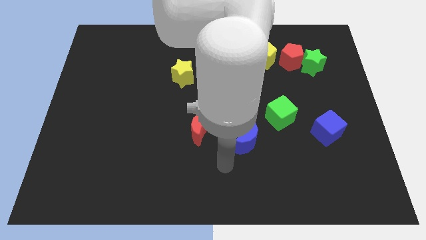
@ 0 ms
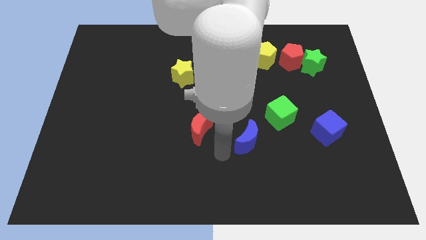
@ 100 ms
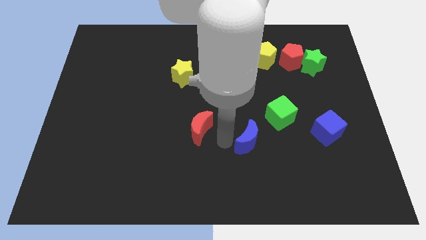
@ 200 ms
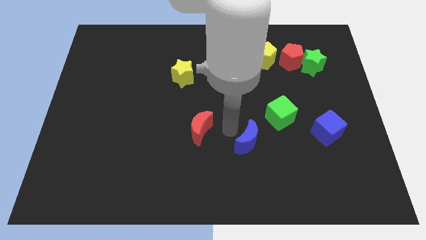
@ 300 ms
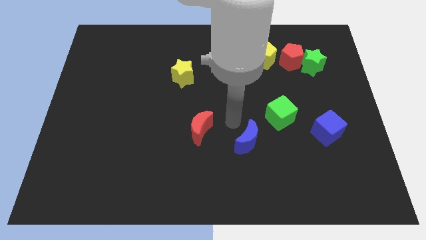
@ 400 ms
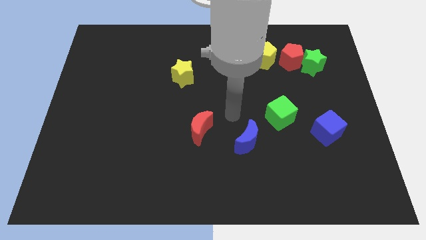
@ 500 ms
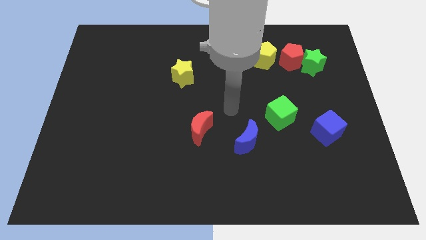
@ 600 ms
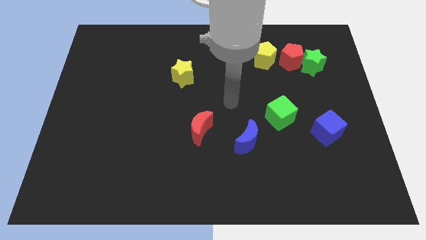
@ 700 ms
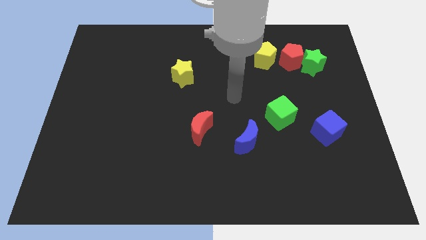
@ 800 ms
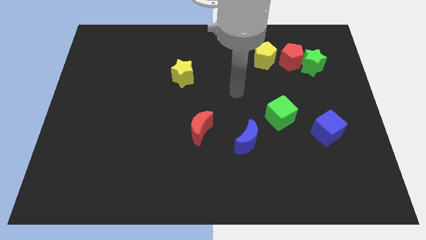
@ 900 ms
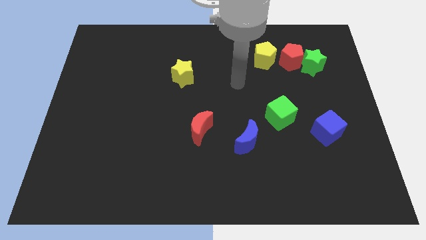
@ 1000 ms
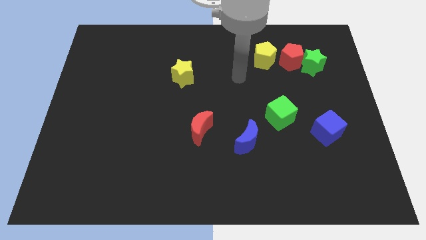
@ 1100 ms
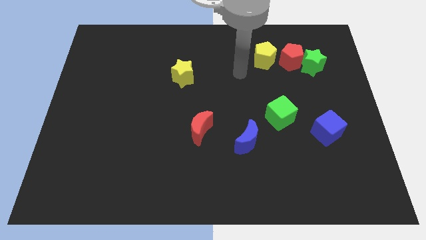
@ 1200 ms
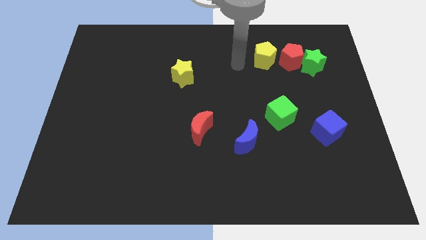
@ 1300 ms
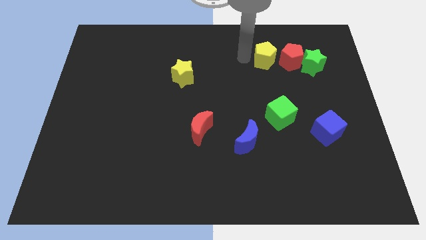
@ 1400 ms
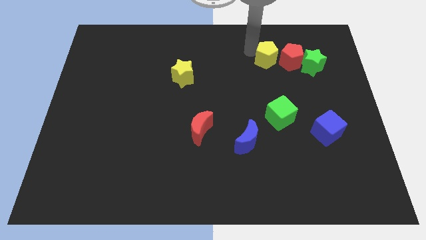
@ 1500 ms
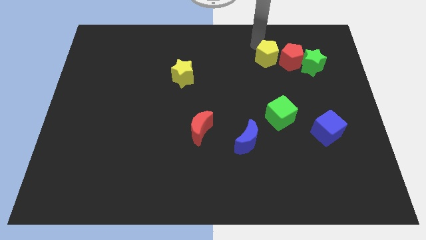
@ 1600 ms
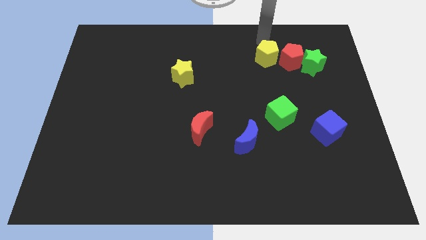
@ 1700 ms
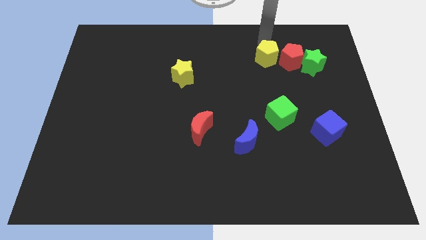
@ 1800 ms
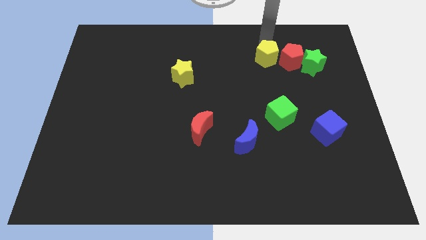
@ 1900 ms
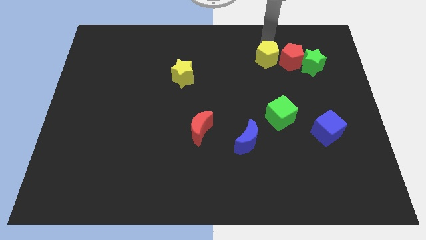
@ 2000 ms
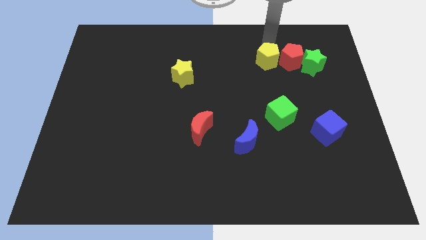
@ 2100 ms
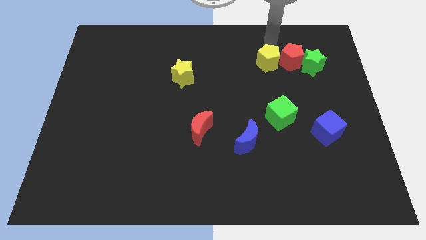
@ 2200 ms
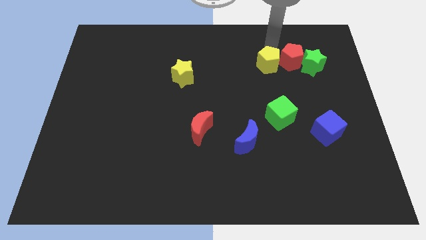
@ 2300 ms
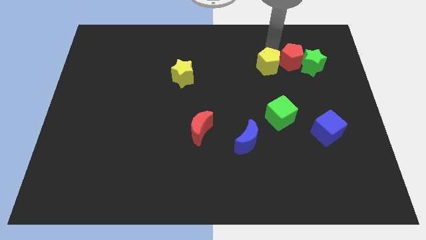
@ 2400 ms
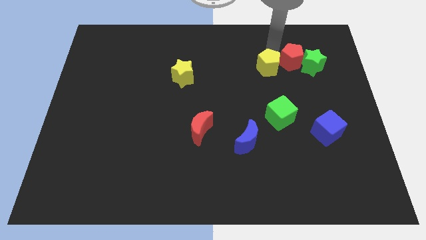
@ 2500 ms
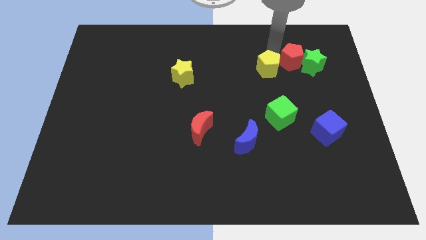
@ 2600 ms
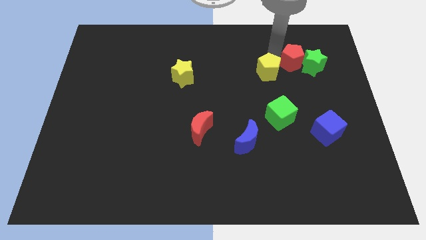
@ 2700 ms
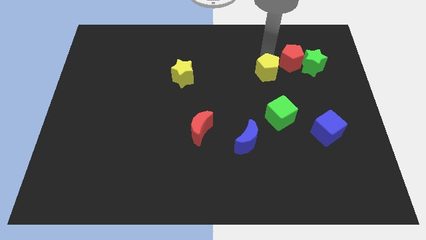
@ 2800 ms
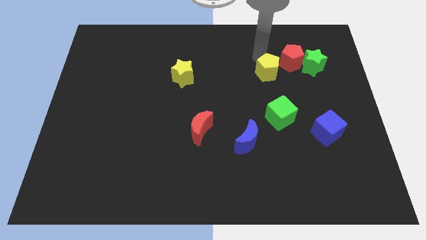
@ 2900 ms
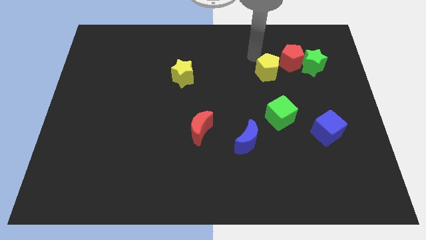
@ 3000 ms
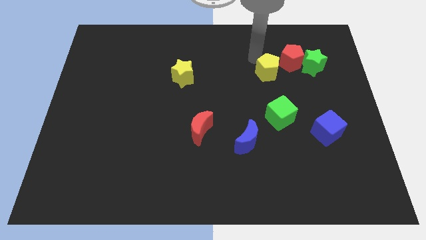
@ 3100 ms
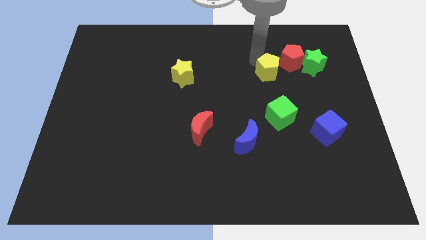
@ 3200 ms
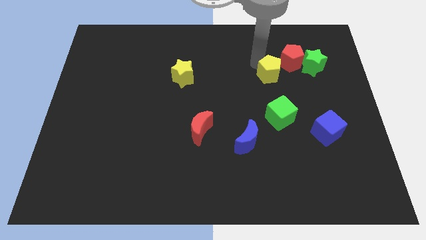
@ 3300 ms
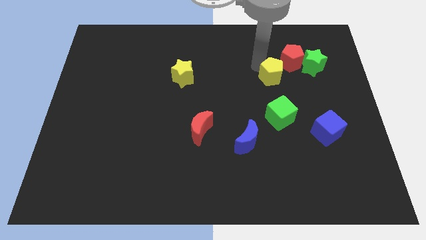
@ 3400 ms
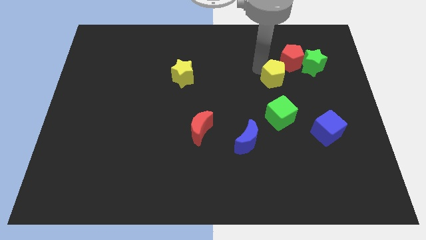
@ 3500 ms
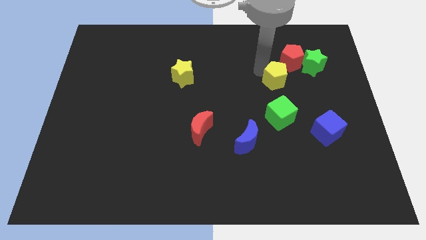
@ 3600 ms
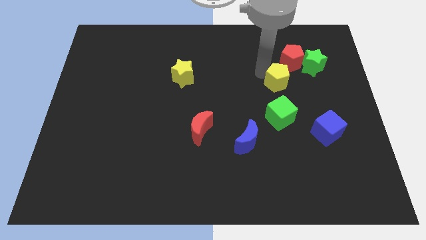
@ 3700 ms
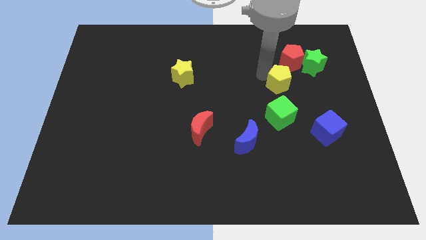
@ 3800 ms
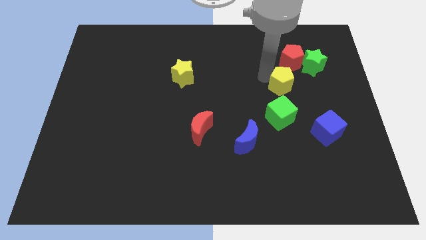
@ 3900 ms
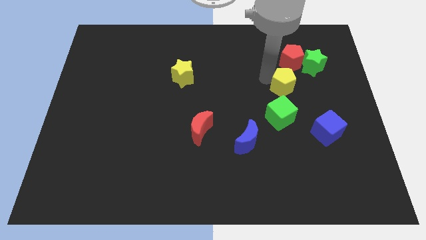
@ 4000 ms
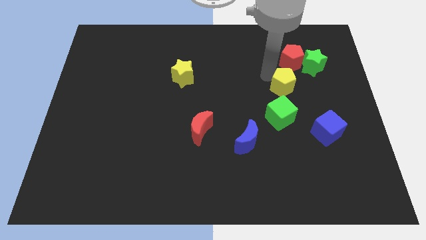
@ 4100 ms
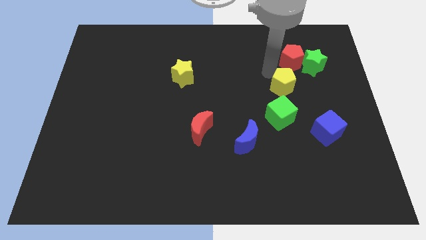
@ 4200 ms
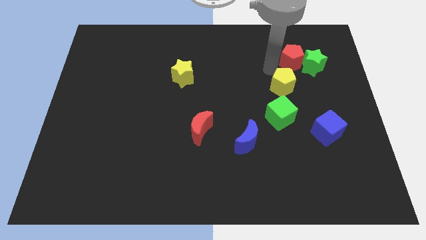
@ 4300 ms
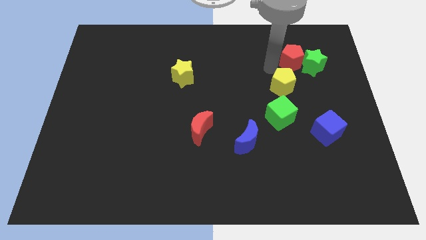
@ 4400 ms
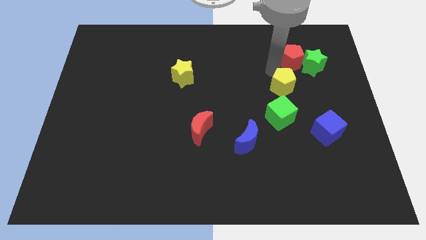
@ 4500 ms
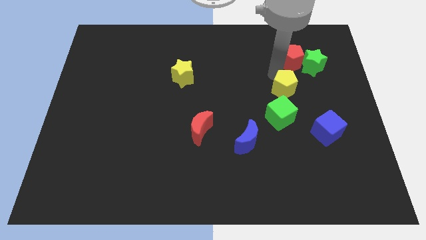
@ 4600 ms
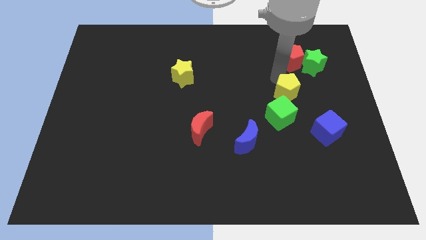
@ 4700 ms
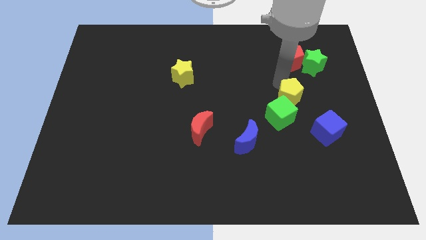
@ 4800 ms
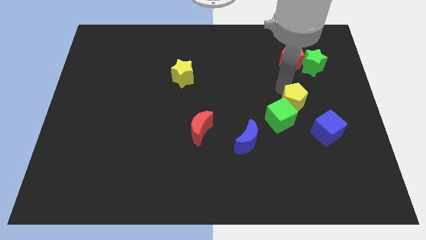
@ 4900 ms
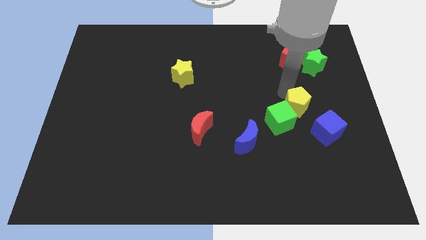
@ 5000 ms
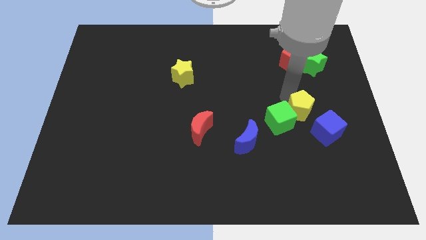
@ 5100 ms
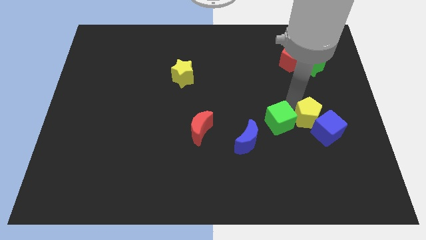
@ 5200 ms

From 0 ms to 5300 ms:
put the yellow pentagon to the blue cube

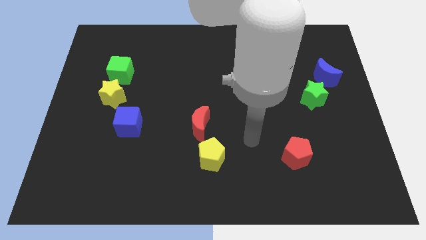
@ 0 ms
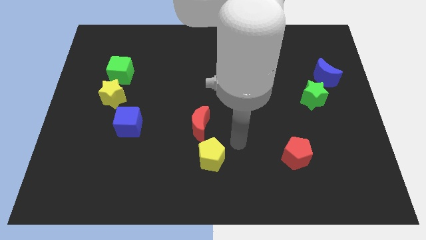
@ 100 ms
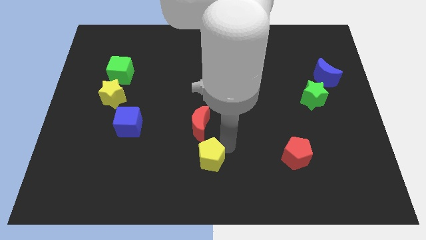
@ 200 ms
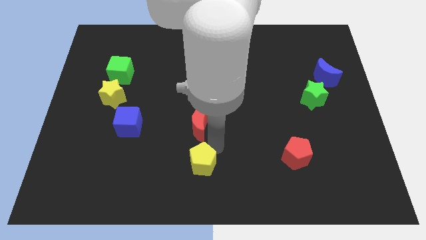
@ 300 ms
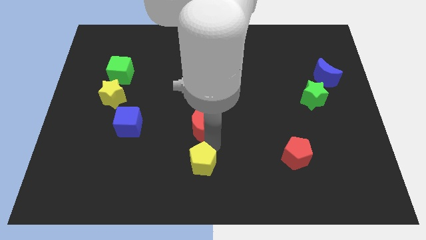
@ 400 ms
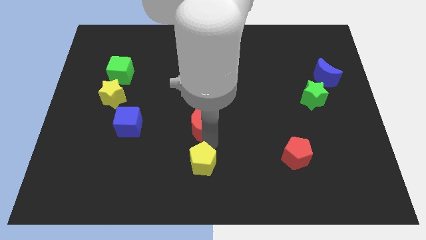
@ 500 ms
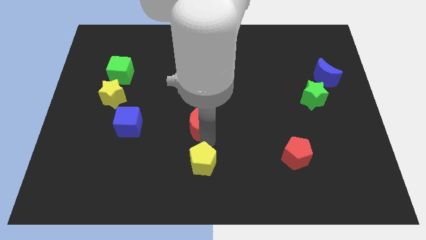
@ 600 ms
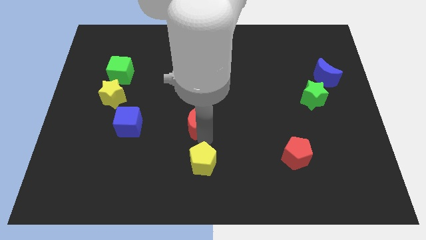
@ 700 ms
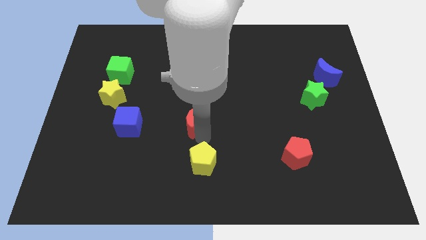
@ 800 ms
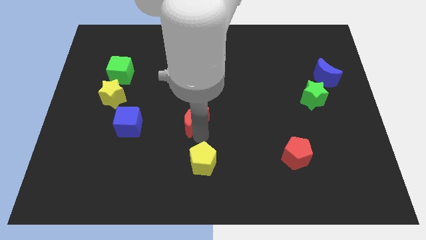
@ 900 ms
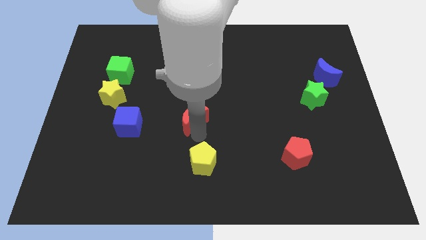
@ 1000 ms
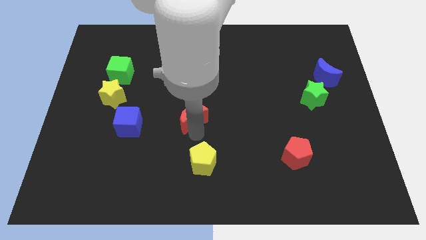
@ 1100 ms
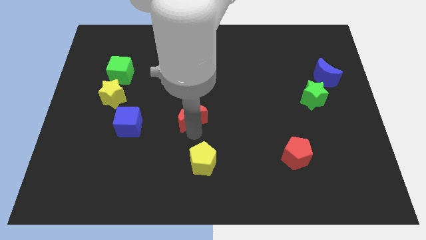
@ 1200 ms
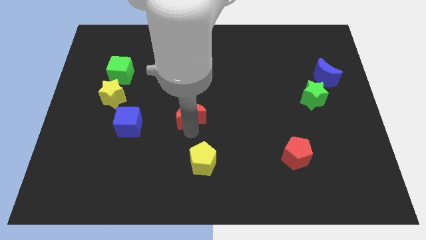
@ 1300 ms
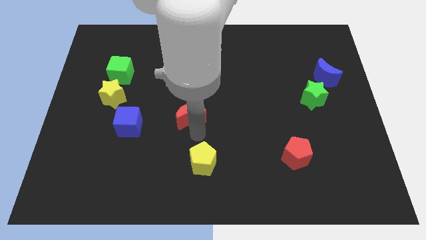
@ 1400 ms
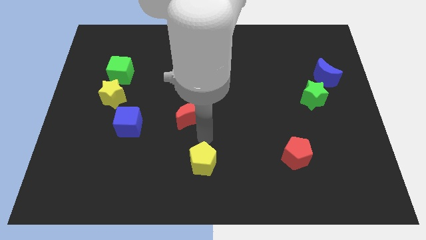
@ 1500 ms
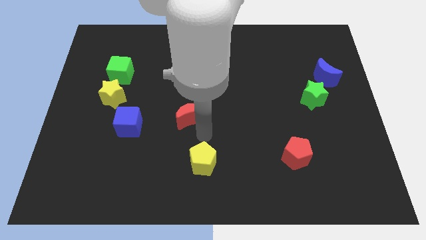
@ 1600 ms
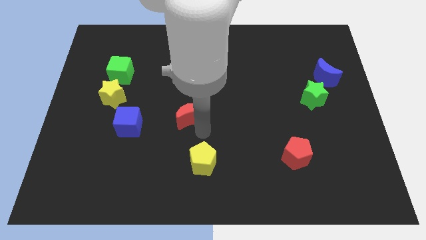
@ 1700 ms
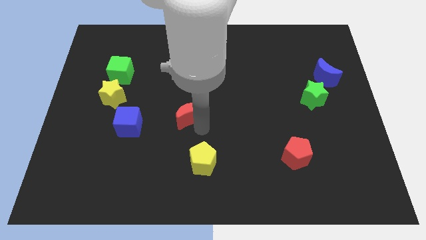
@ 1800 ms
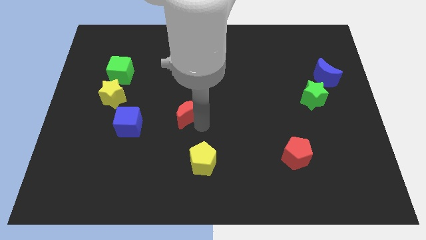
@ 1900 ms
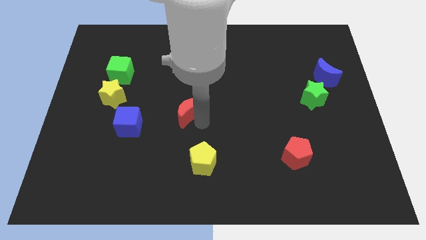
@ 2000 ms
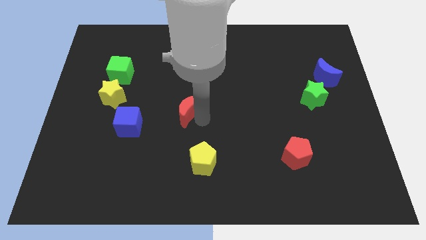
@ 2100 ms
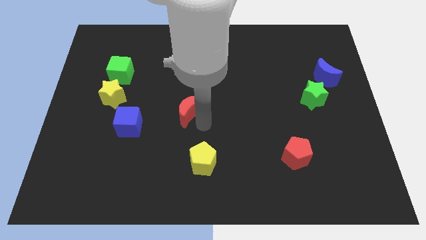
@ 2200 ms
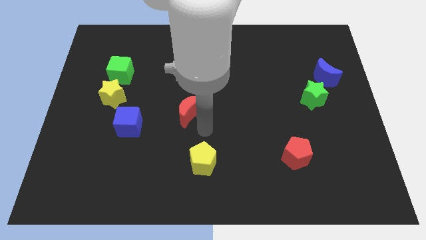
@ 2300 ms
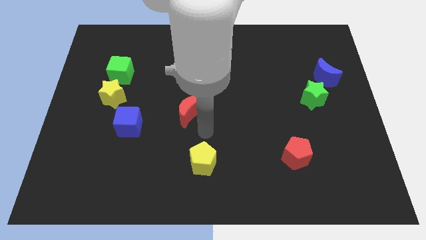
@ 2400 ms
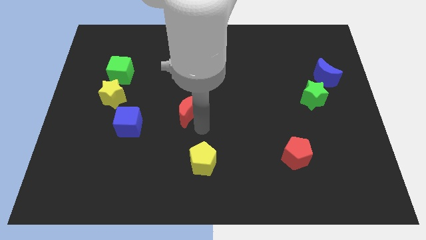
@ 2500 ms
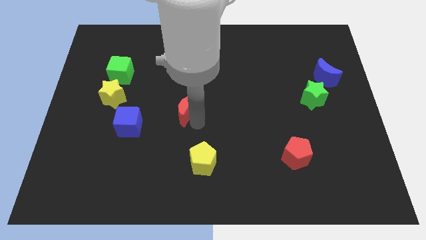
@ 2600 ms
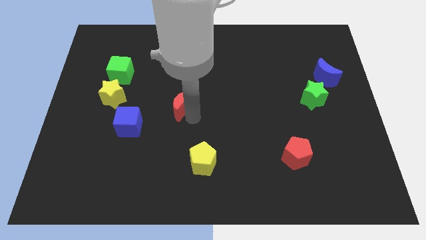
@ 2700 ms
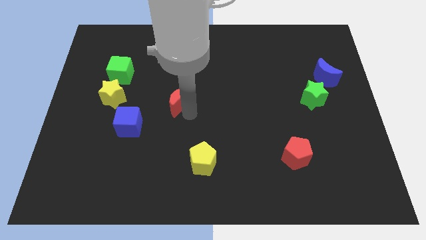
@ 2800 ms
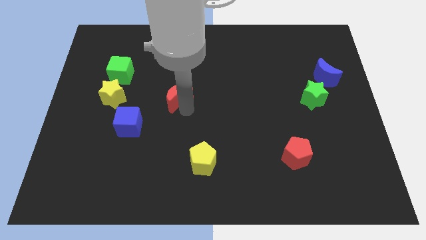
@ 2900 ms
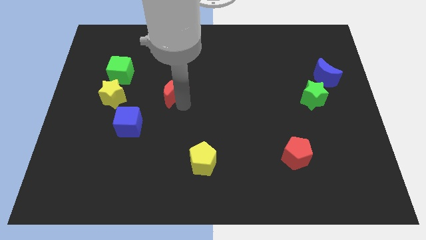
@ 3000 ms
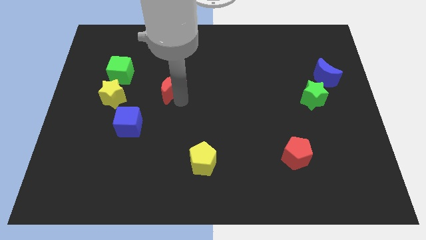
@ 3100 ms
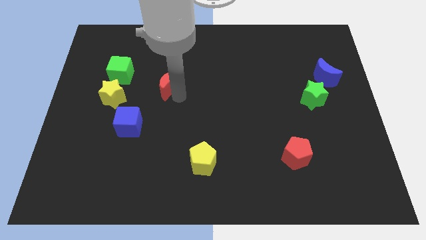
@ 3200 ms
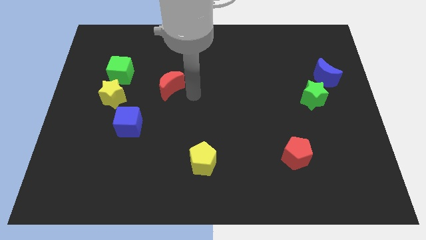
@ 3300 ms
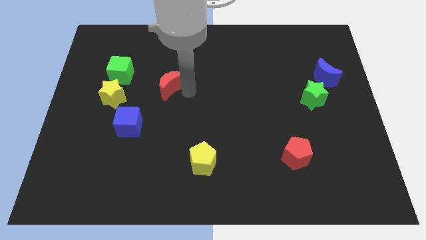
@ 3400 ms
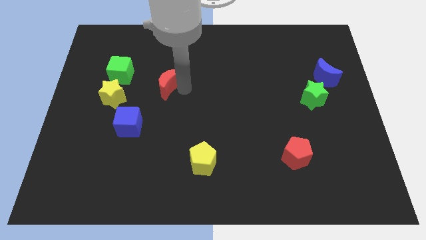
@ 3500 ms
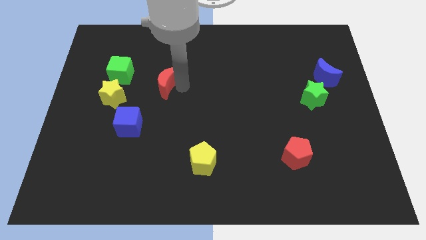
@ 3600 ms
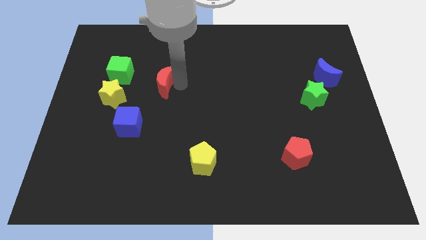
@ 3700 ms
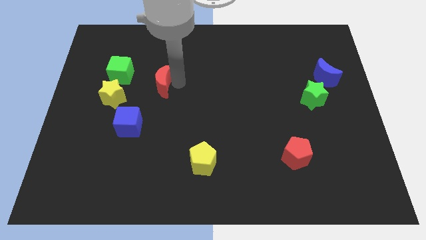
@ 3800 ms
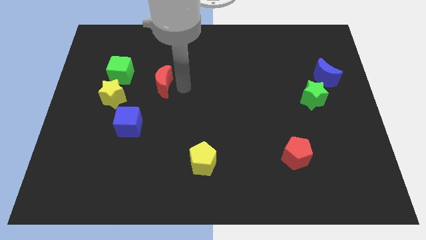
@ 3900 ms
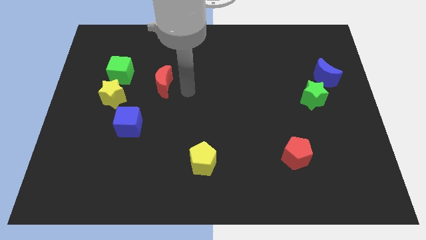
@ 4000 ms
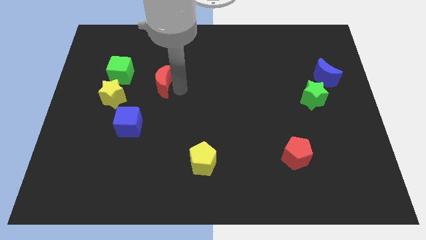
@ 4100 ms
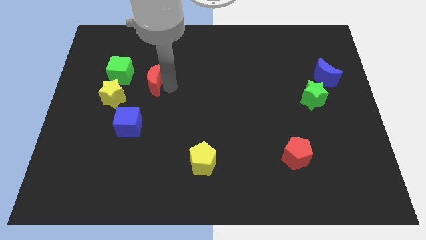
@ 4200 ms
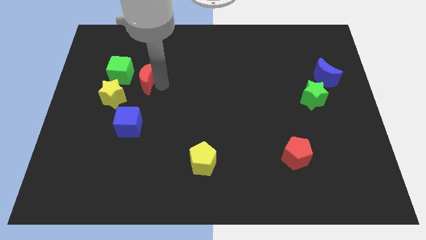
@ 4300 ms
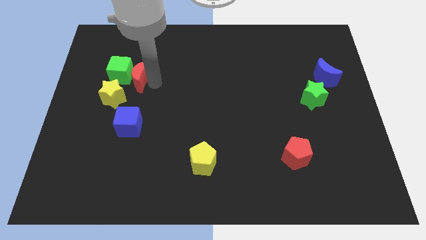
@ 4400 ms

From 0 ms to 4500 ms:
push the red moon close to the green cube
